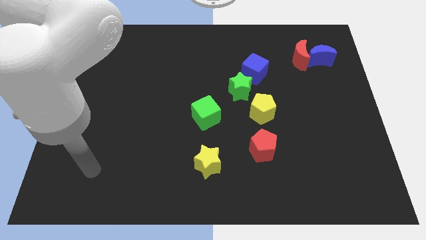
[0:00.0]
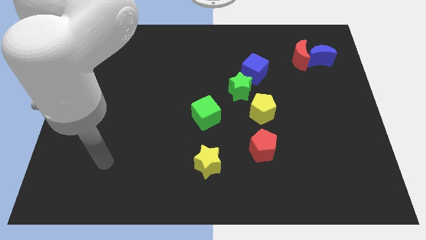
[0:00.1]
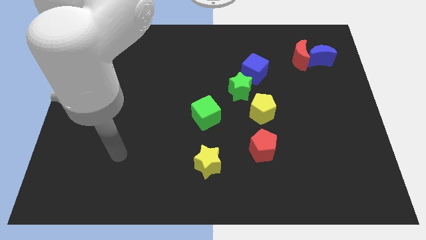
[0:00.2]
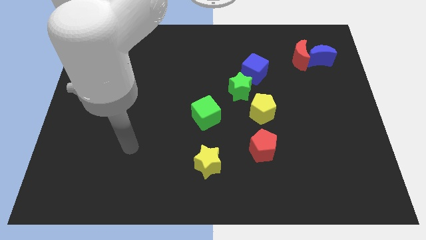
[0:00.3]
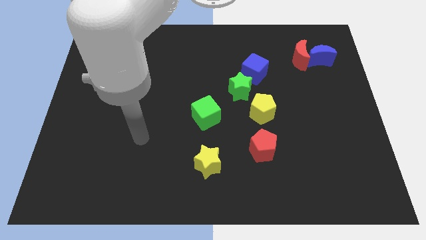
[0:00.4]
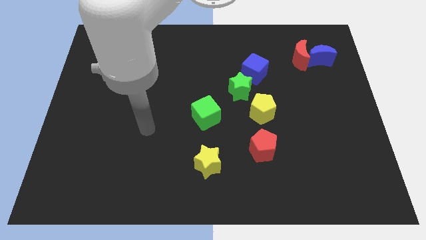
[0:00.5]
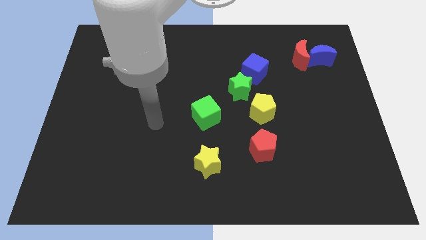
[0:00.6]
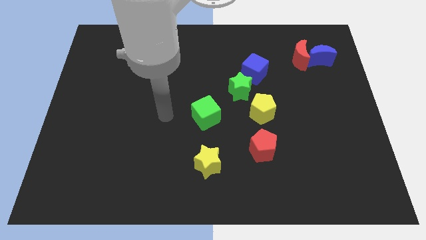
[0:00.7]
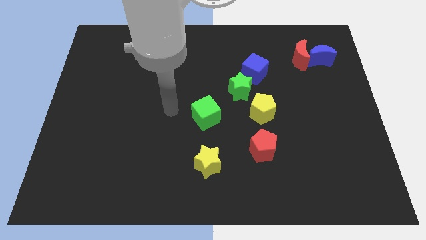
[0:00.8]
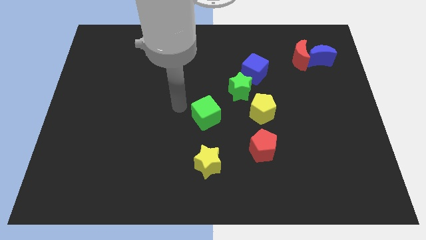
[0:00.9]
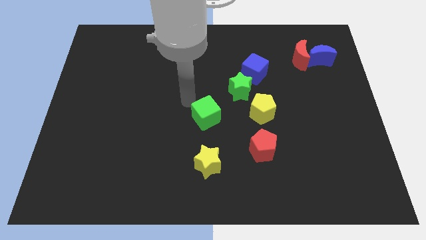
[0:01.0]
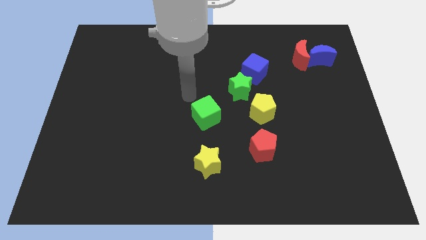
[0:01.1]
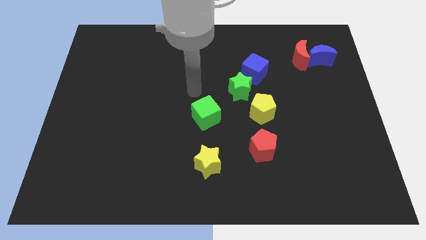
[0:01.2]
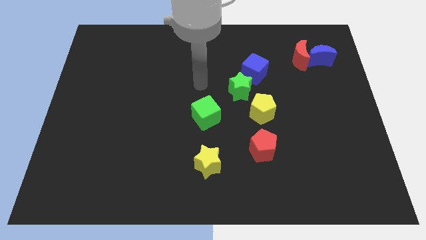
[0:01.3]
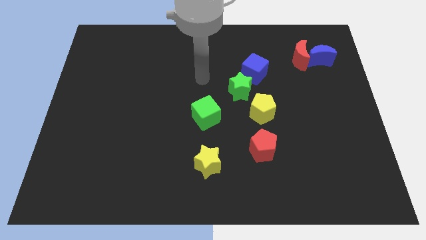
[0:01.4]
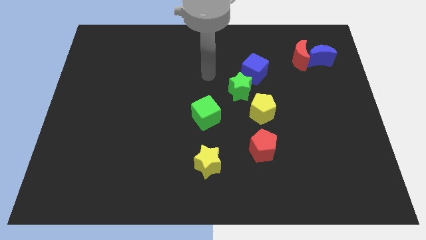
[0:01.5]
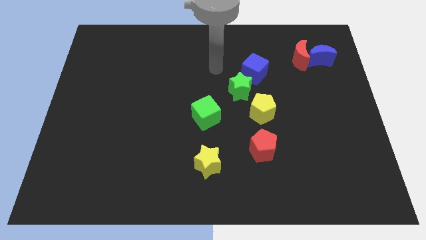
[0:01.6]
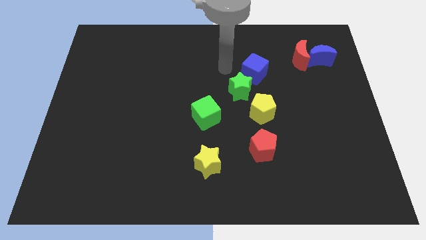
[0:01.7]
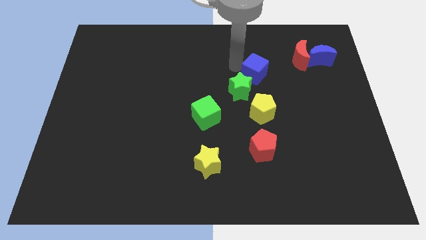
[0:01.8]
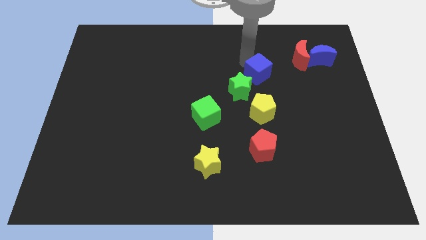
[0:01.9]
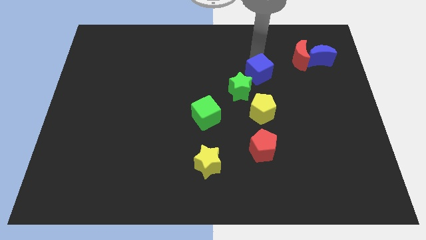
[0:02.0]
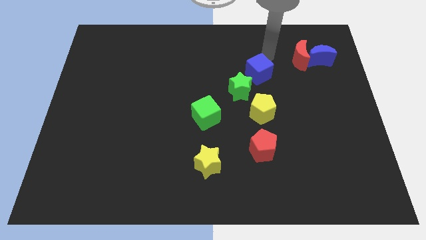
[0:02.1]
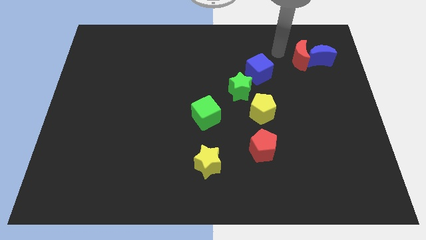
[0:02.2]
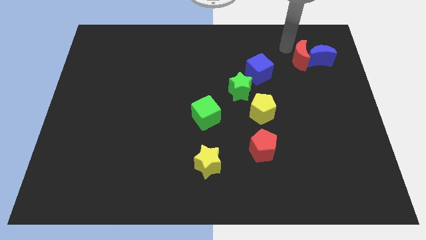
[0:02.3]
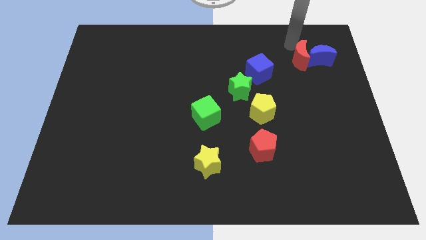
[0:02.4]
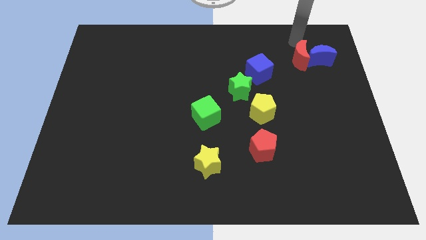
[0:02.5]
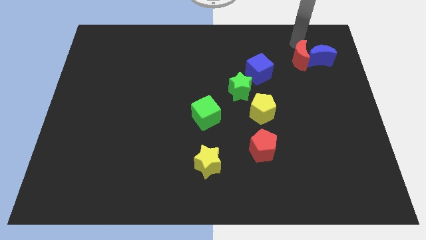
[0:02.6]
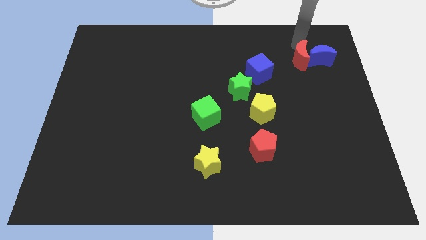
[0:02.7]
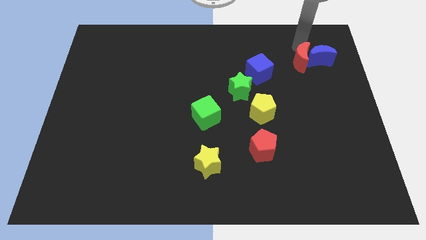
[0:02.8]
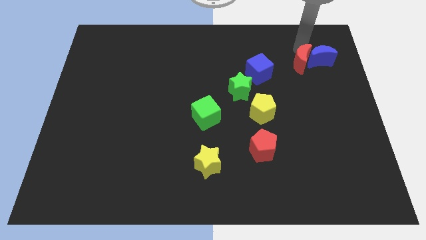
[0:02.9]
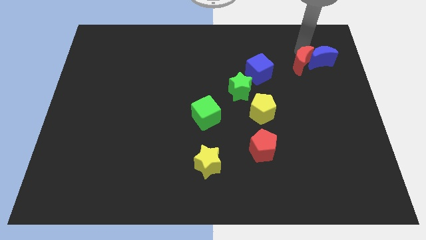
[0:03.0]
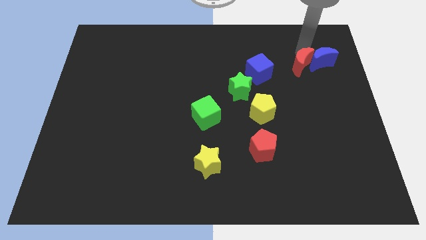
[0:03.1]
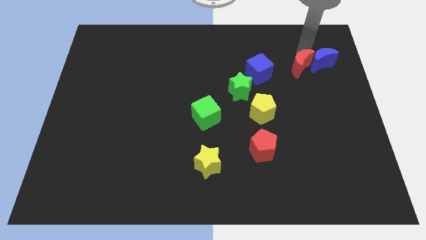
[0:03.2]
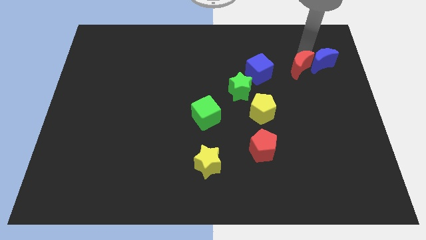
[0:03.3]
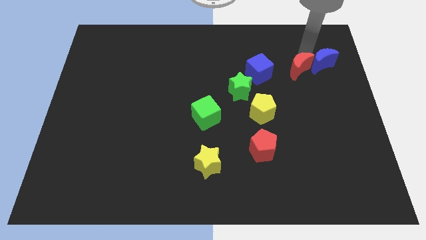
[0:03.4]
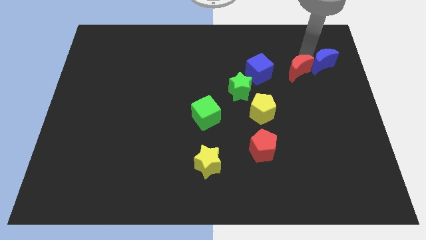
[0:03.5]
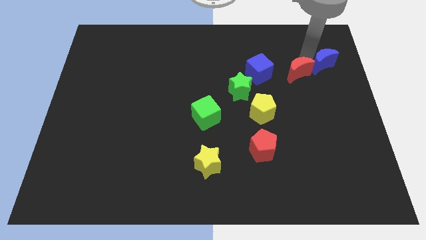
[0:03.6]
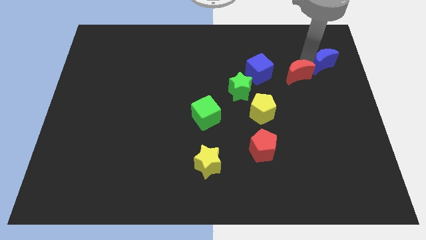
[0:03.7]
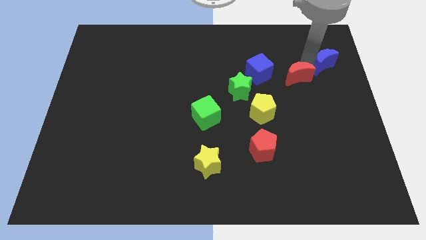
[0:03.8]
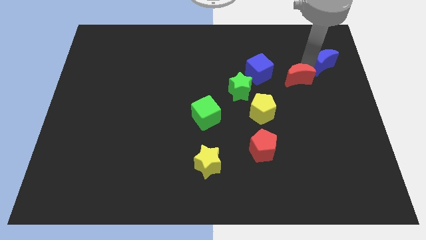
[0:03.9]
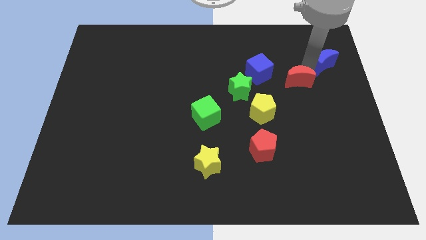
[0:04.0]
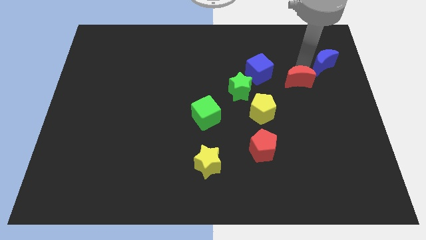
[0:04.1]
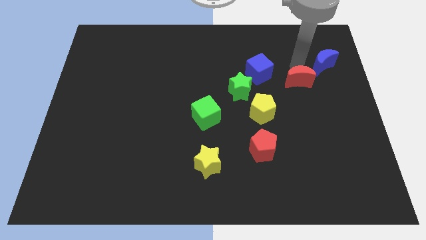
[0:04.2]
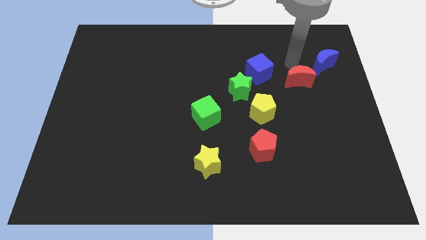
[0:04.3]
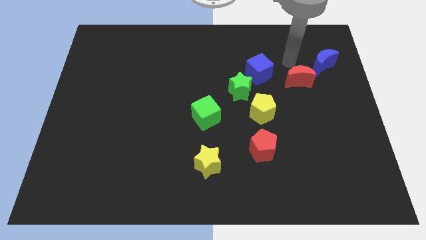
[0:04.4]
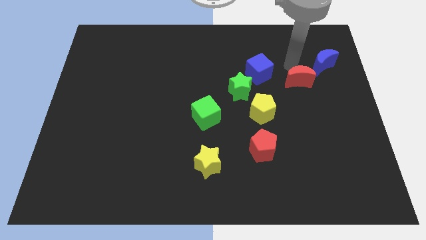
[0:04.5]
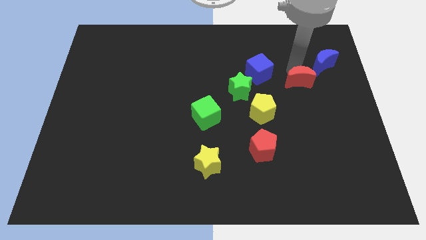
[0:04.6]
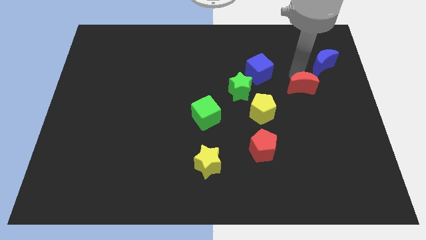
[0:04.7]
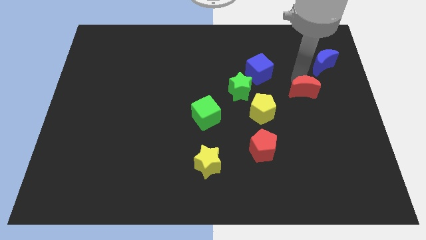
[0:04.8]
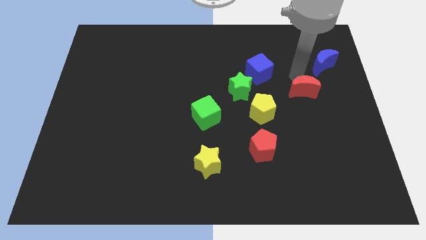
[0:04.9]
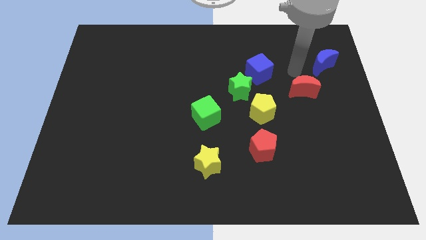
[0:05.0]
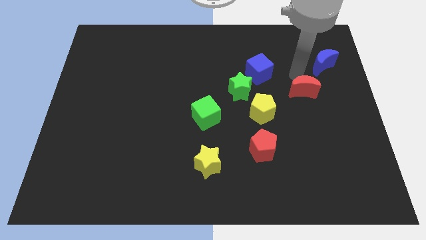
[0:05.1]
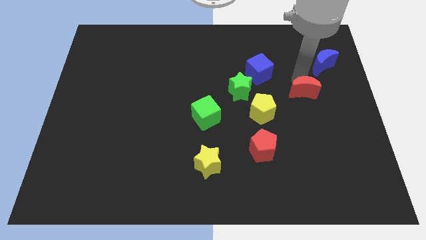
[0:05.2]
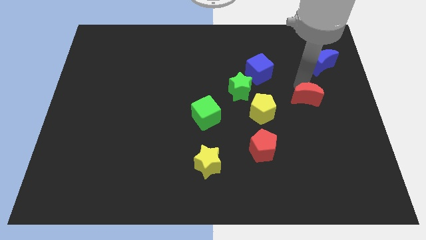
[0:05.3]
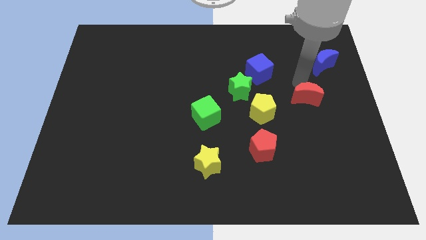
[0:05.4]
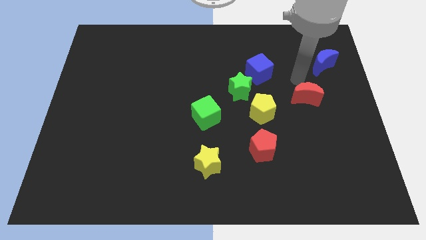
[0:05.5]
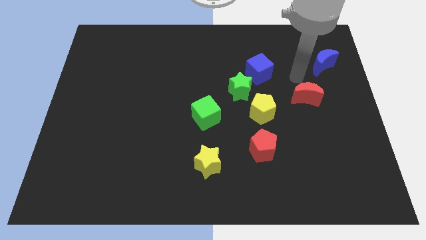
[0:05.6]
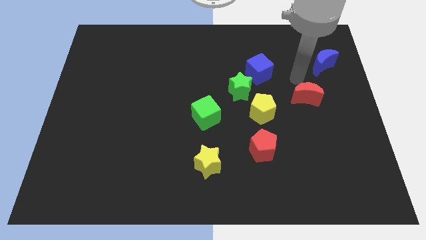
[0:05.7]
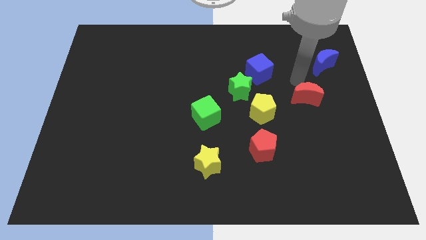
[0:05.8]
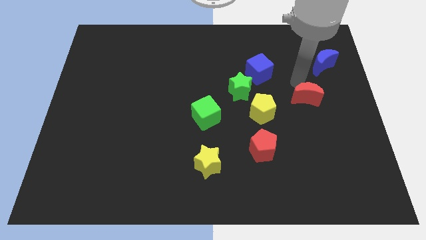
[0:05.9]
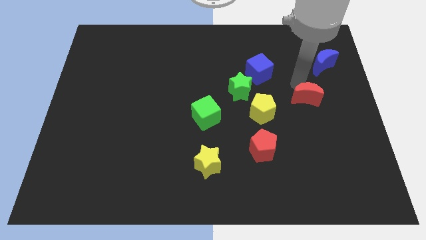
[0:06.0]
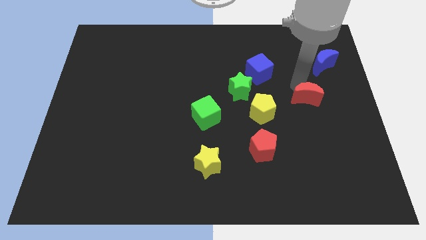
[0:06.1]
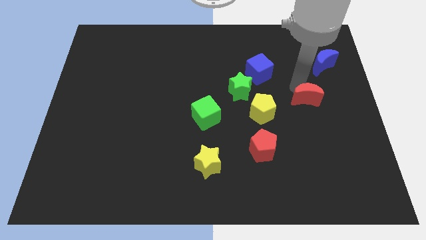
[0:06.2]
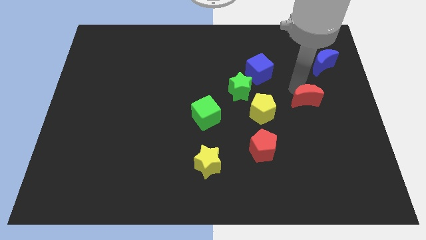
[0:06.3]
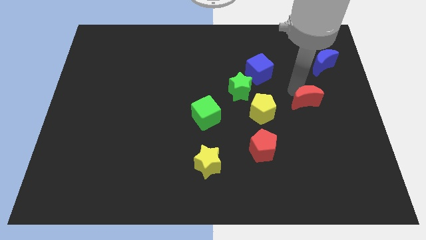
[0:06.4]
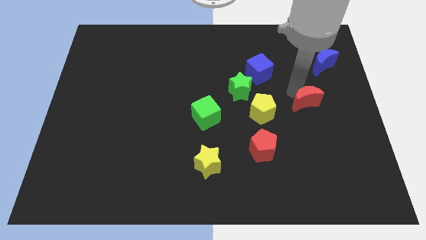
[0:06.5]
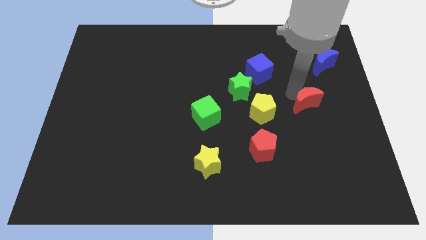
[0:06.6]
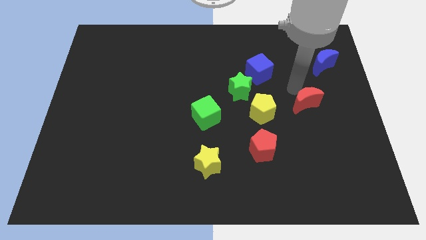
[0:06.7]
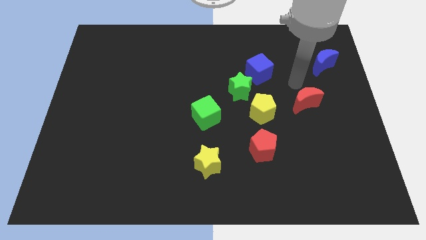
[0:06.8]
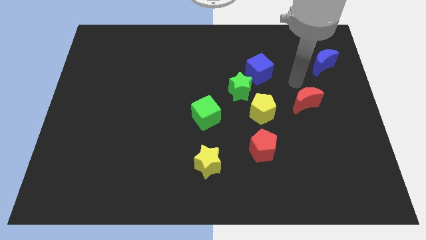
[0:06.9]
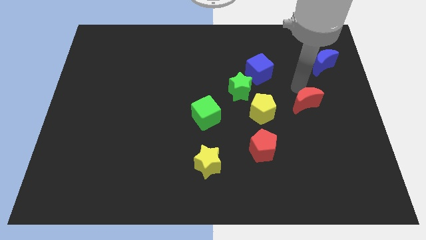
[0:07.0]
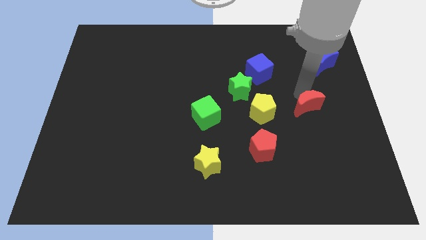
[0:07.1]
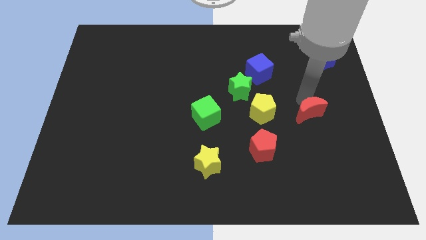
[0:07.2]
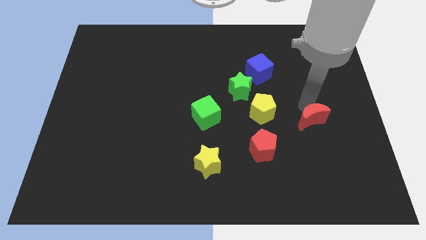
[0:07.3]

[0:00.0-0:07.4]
move the red moon downwards

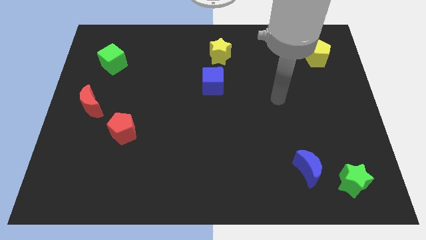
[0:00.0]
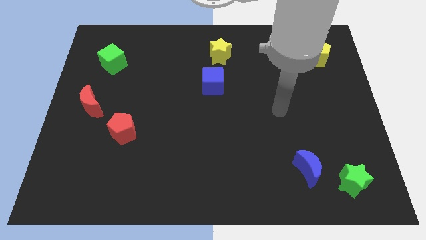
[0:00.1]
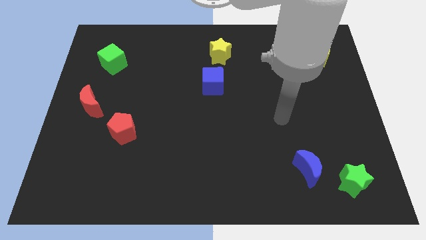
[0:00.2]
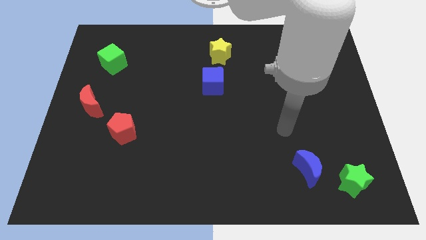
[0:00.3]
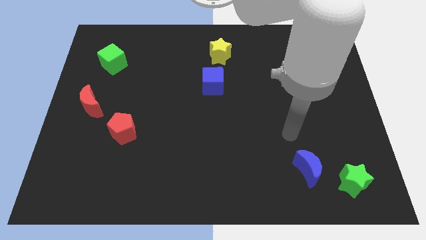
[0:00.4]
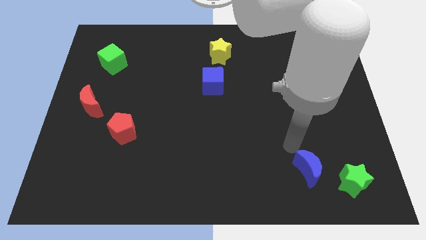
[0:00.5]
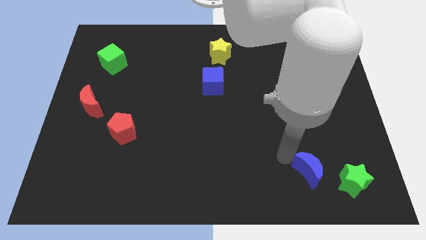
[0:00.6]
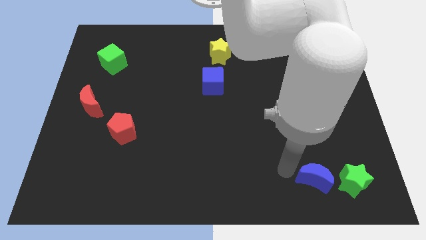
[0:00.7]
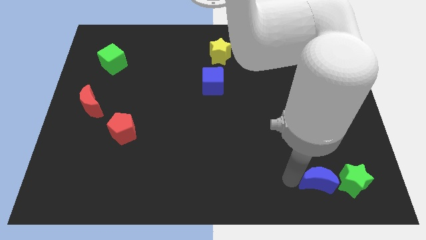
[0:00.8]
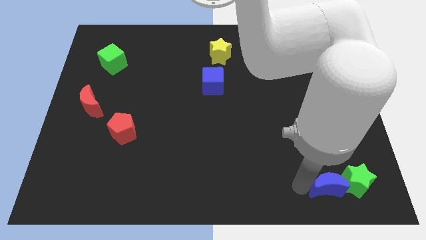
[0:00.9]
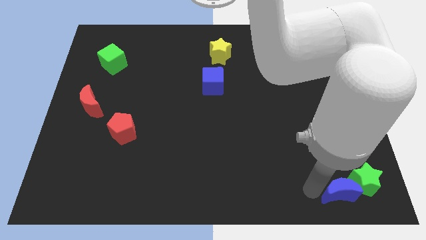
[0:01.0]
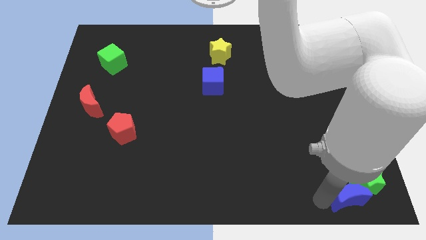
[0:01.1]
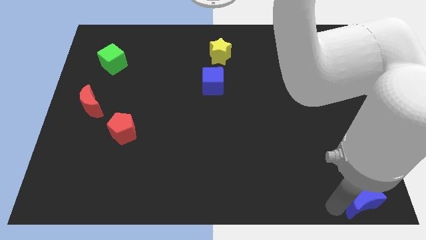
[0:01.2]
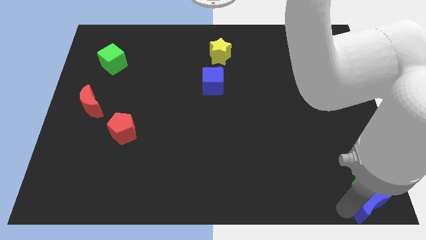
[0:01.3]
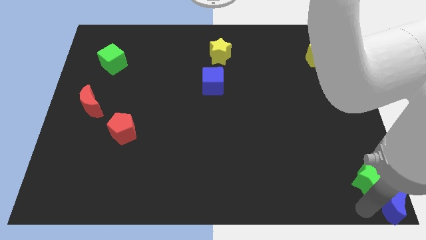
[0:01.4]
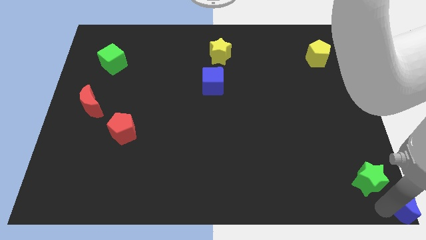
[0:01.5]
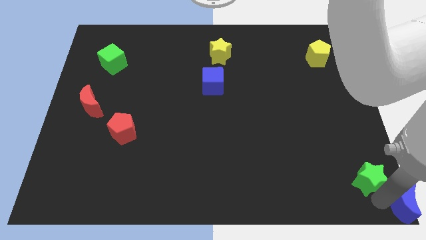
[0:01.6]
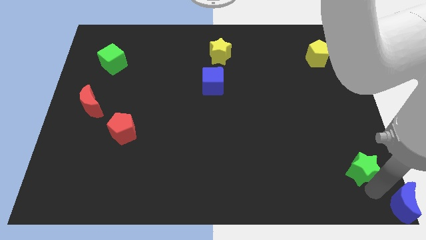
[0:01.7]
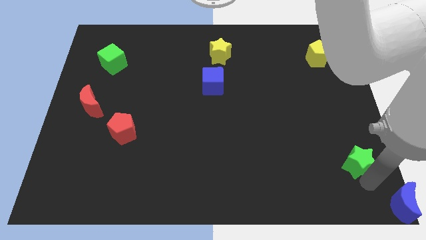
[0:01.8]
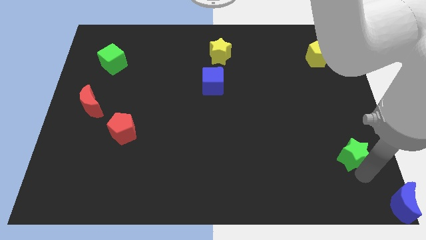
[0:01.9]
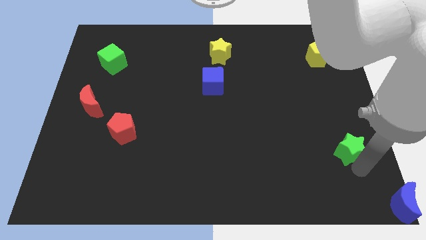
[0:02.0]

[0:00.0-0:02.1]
slightly move the green star upwards
